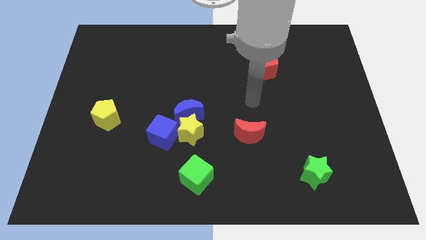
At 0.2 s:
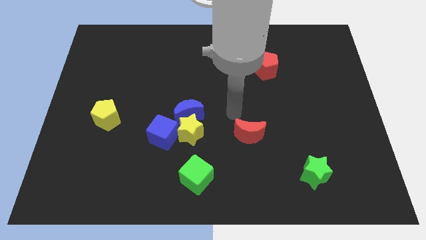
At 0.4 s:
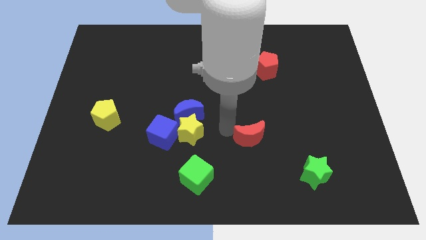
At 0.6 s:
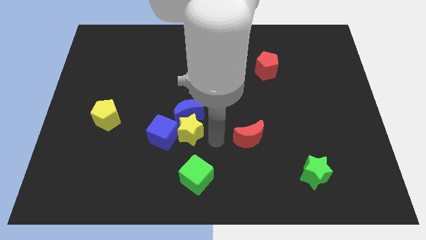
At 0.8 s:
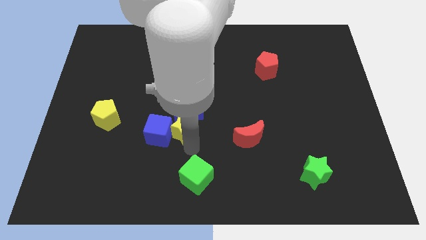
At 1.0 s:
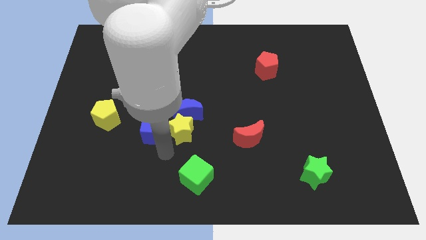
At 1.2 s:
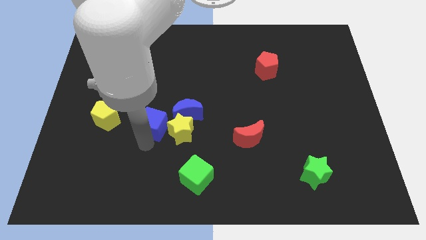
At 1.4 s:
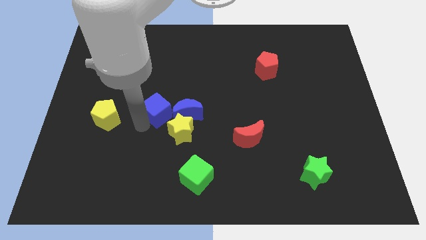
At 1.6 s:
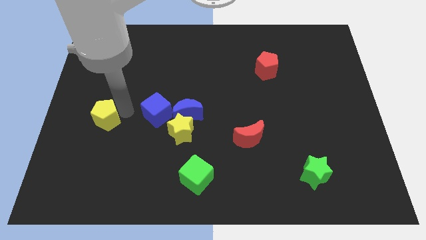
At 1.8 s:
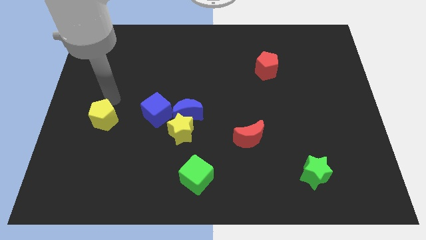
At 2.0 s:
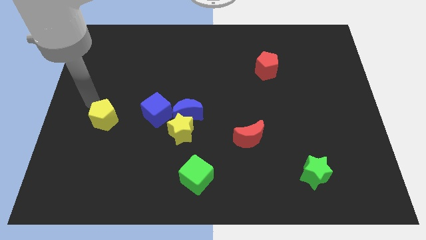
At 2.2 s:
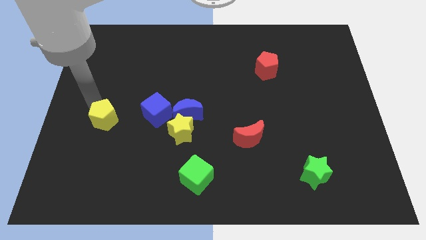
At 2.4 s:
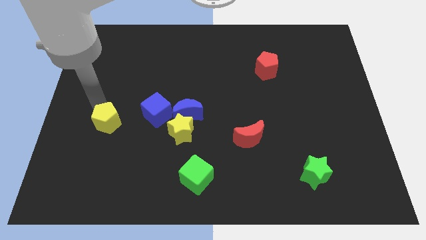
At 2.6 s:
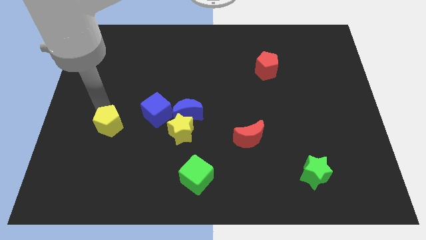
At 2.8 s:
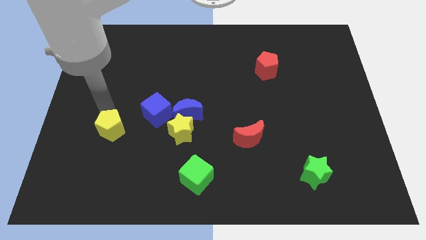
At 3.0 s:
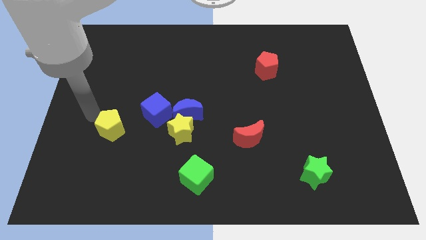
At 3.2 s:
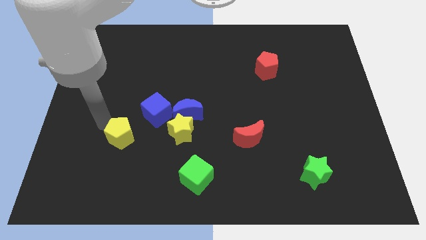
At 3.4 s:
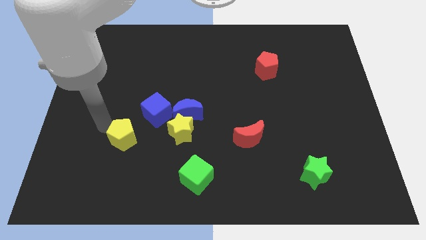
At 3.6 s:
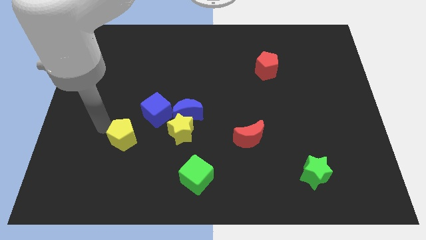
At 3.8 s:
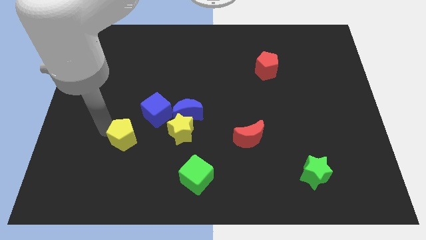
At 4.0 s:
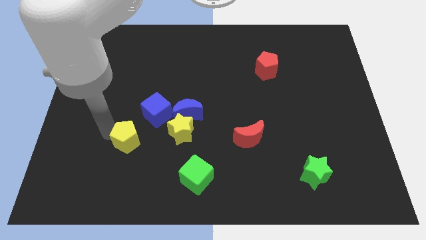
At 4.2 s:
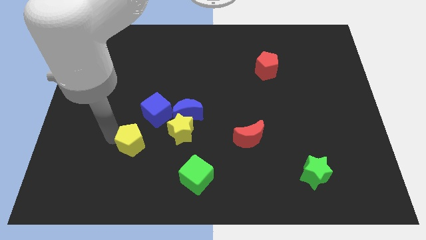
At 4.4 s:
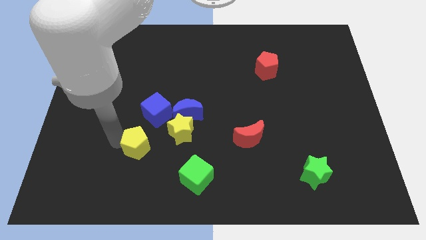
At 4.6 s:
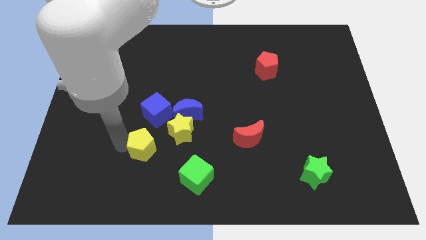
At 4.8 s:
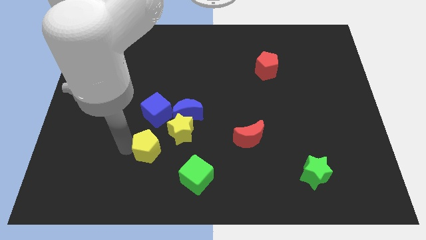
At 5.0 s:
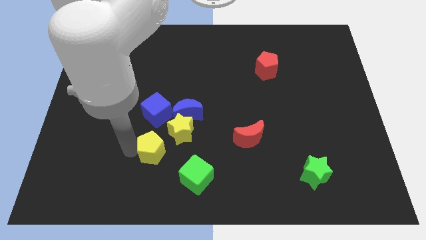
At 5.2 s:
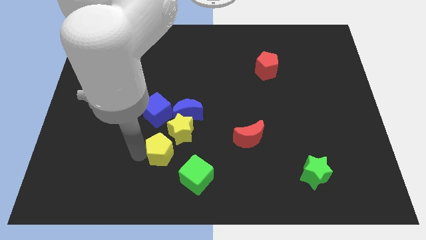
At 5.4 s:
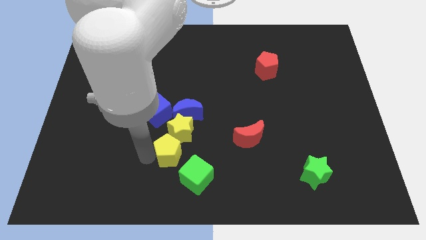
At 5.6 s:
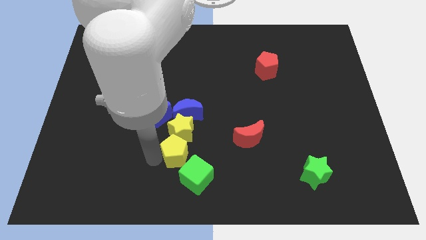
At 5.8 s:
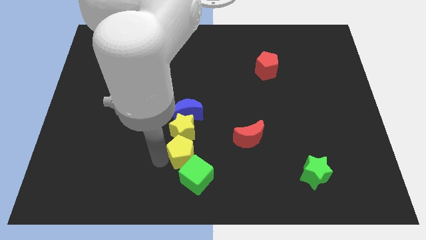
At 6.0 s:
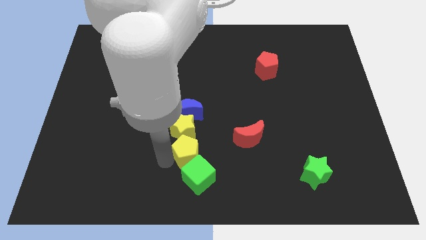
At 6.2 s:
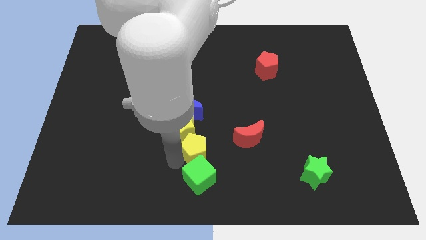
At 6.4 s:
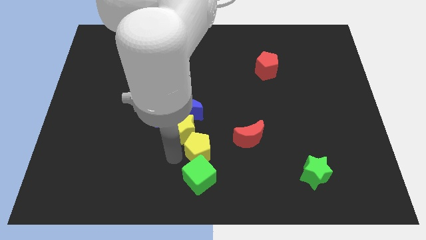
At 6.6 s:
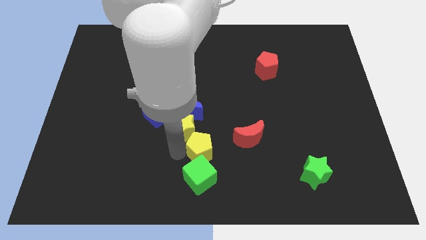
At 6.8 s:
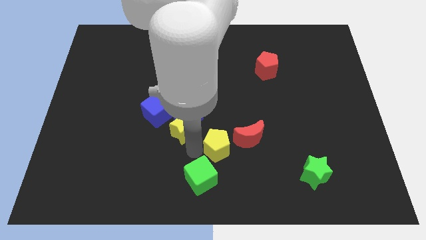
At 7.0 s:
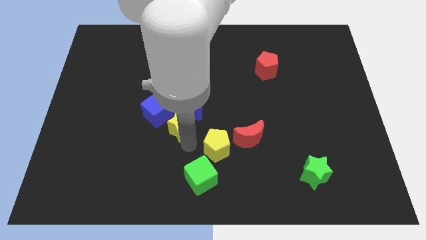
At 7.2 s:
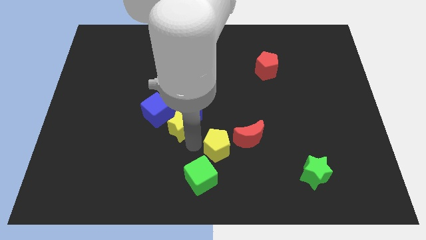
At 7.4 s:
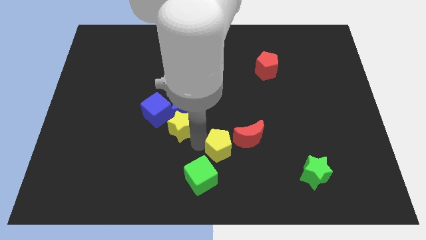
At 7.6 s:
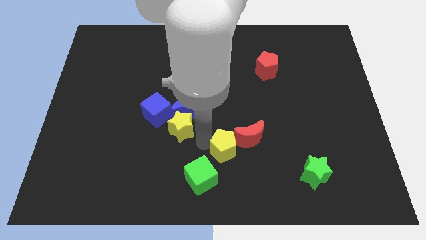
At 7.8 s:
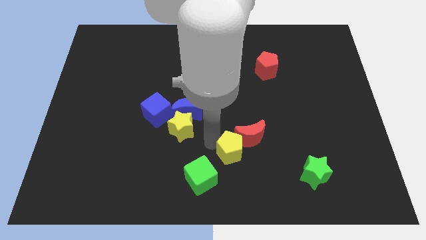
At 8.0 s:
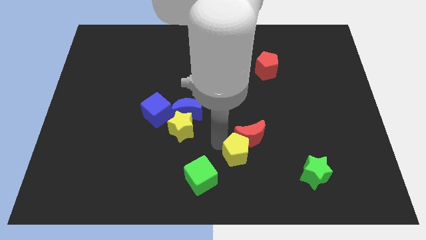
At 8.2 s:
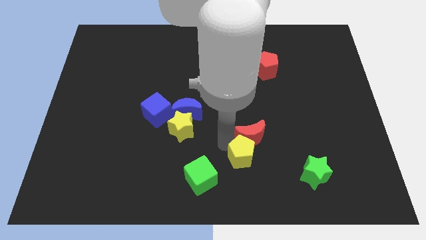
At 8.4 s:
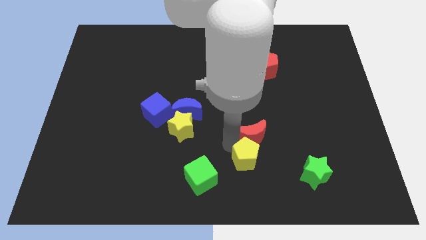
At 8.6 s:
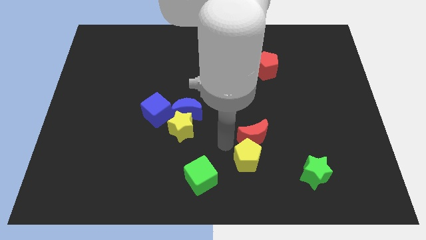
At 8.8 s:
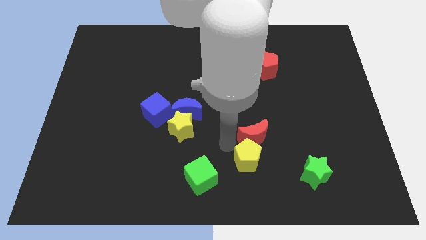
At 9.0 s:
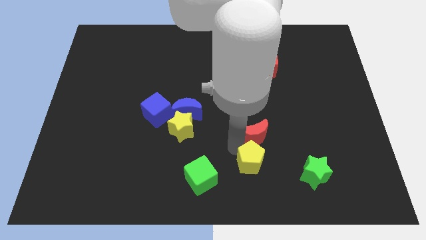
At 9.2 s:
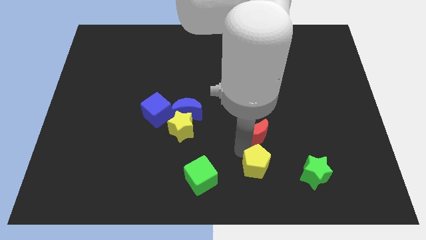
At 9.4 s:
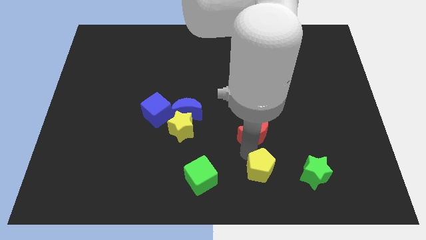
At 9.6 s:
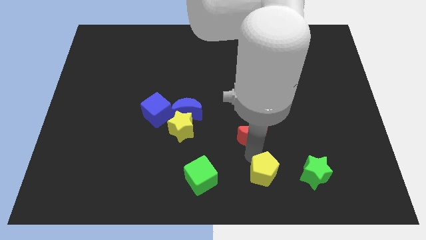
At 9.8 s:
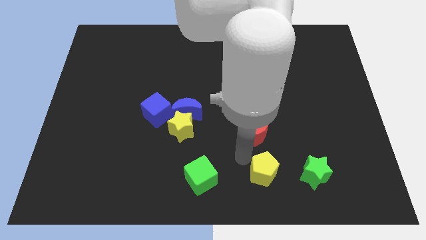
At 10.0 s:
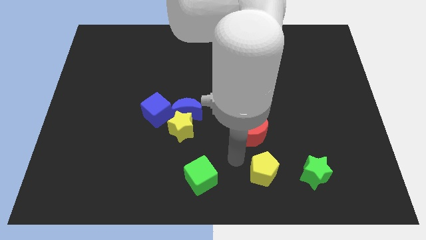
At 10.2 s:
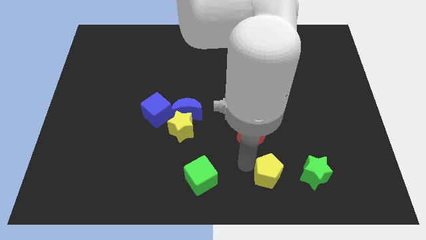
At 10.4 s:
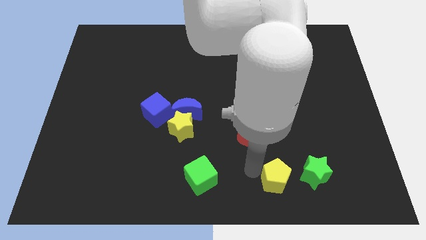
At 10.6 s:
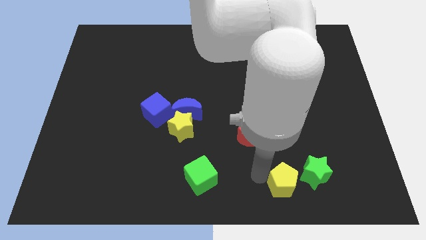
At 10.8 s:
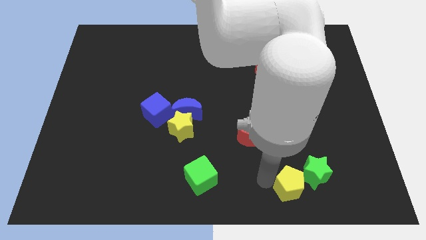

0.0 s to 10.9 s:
slide the yellow pentagon to the green star

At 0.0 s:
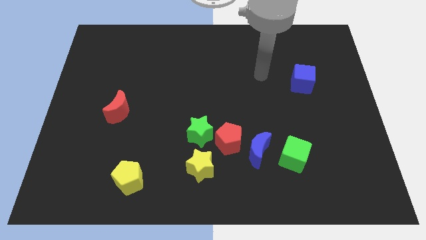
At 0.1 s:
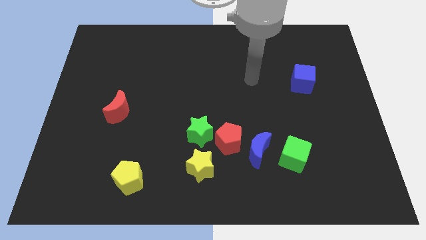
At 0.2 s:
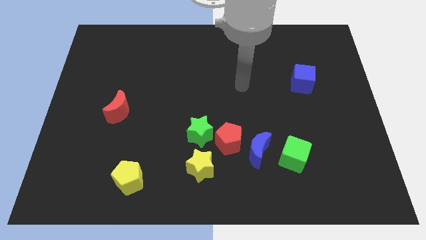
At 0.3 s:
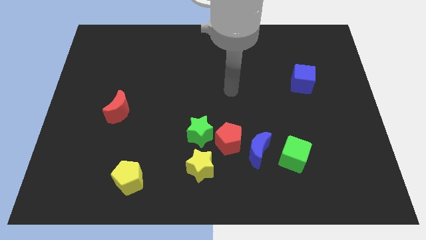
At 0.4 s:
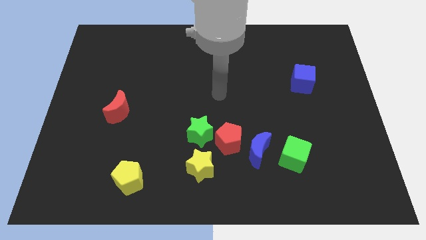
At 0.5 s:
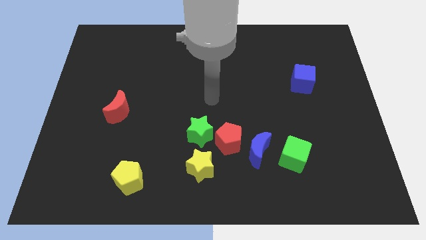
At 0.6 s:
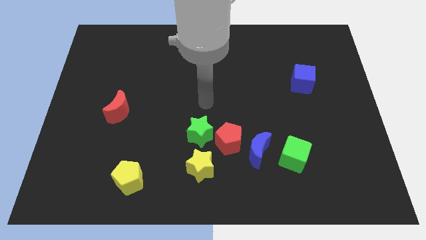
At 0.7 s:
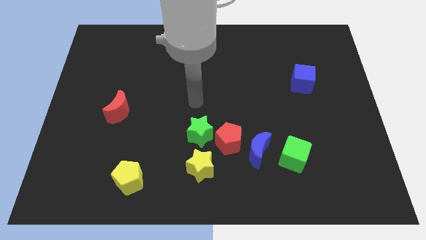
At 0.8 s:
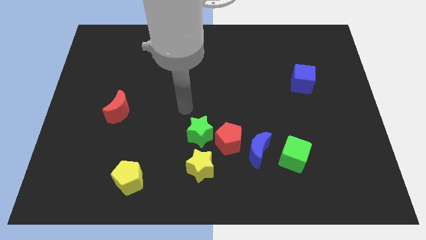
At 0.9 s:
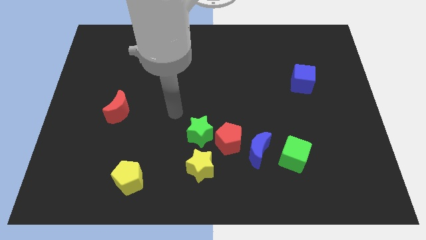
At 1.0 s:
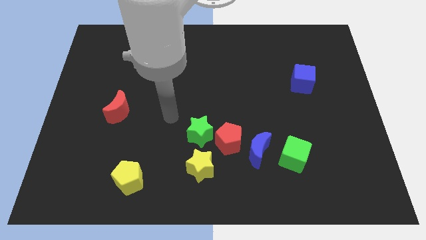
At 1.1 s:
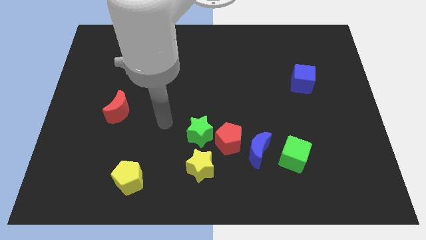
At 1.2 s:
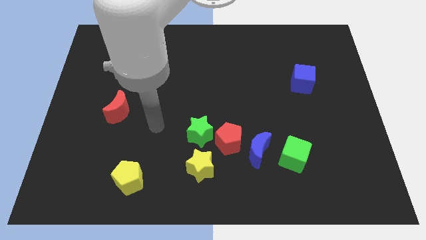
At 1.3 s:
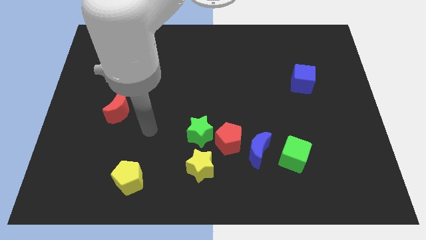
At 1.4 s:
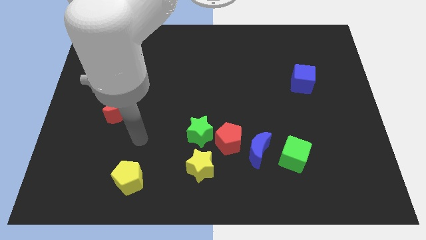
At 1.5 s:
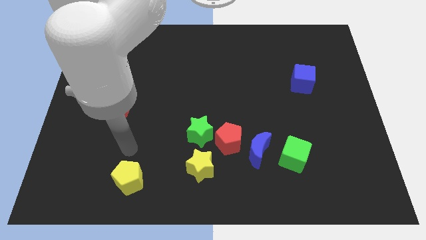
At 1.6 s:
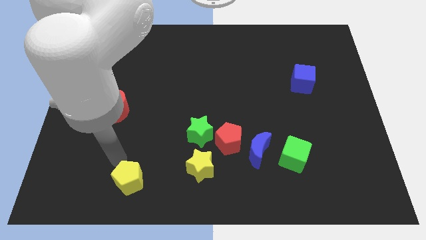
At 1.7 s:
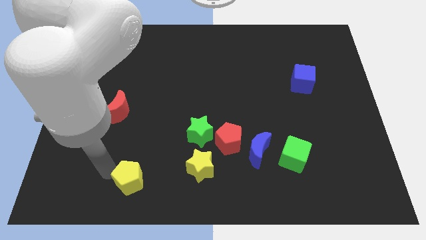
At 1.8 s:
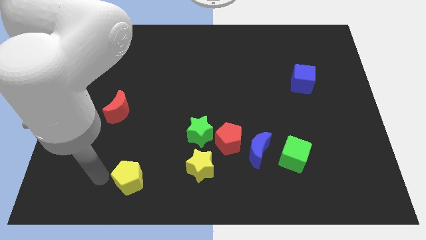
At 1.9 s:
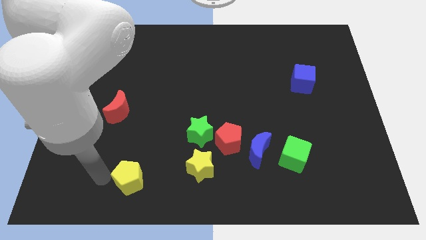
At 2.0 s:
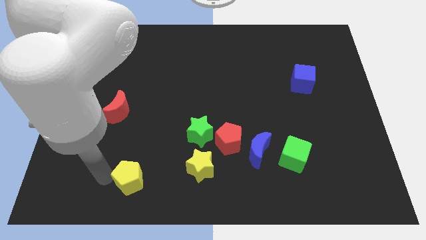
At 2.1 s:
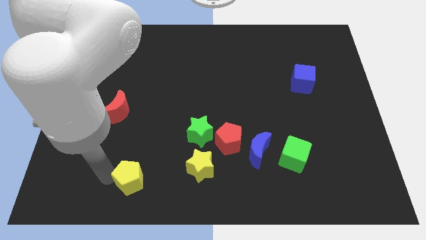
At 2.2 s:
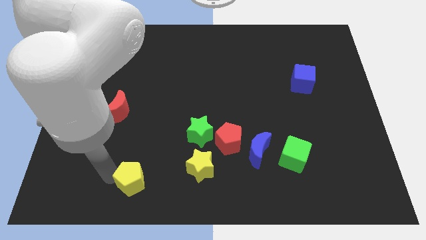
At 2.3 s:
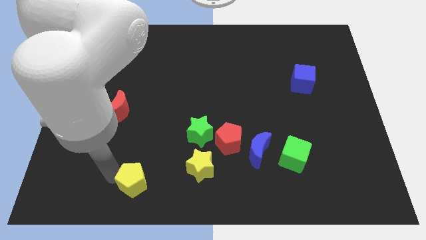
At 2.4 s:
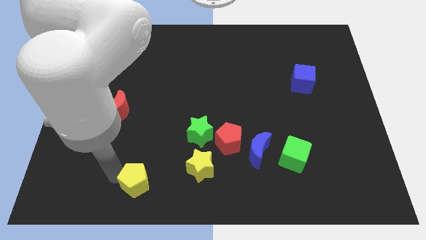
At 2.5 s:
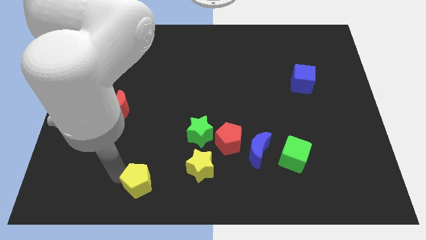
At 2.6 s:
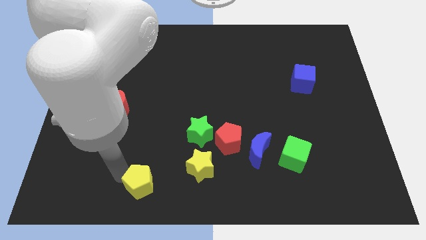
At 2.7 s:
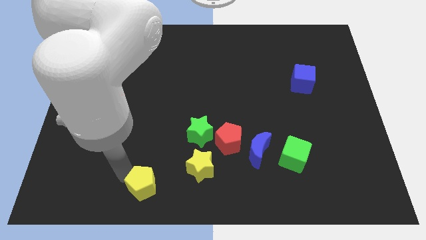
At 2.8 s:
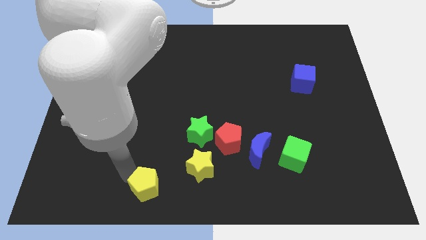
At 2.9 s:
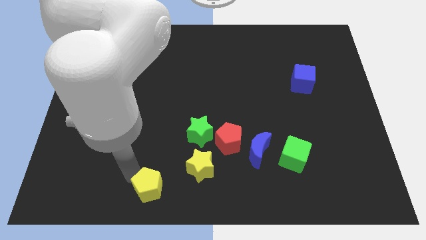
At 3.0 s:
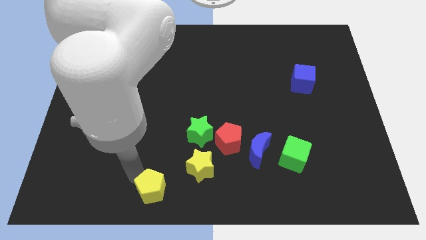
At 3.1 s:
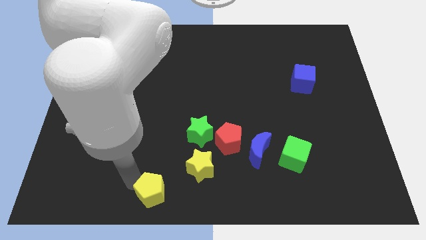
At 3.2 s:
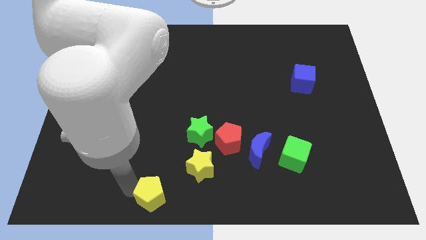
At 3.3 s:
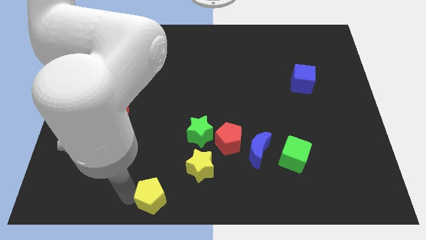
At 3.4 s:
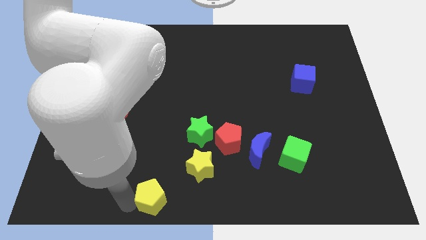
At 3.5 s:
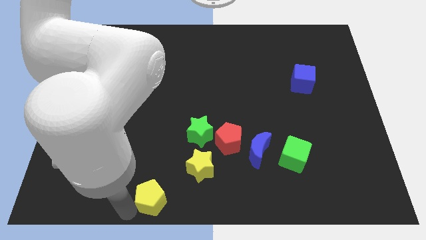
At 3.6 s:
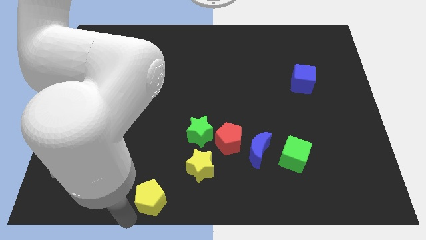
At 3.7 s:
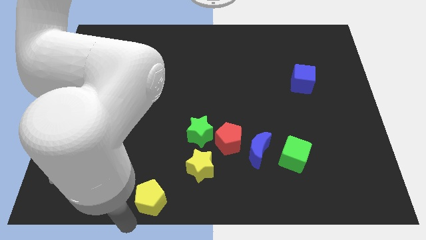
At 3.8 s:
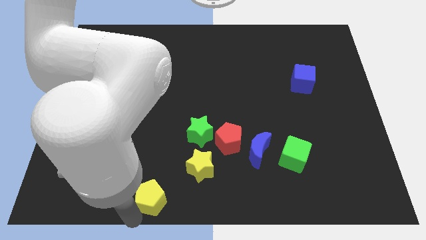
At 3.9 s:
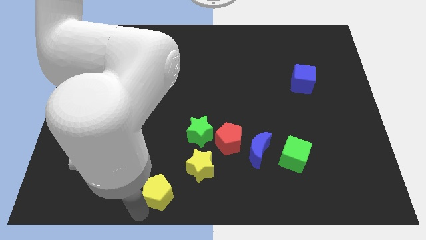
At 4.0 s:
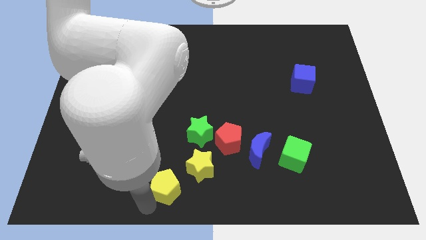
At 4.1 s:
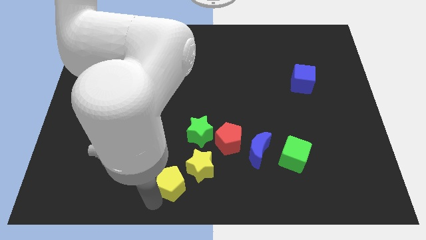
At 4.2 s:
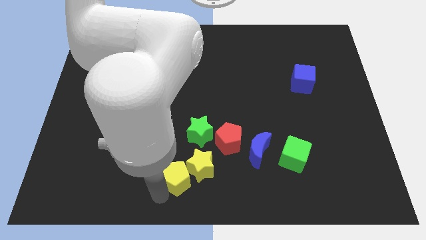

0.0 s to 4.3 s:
move the yellow pentagon towards the yellow star
